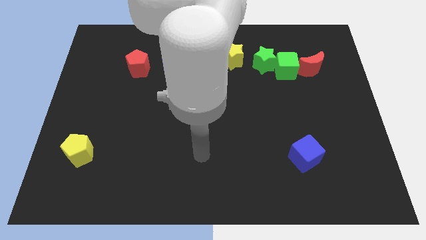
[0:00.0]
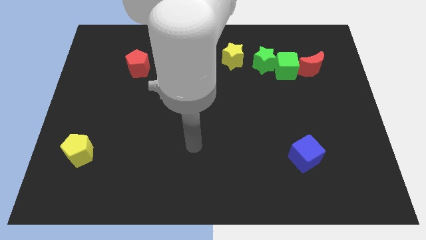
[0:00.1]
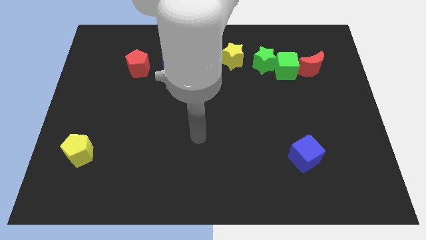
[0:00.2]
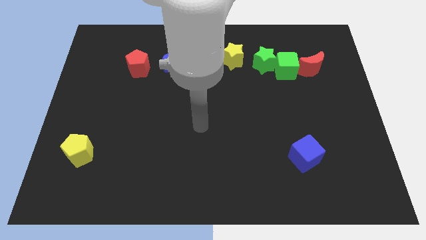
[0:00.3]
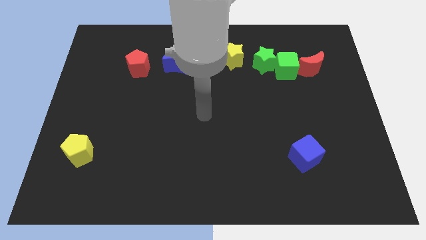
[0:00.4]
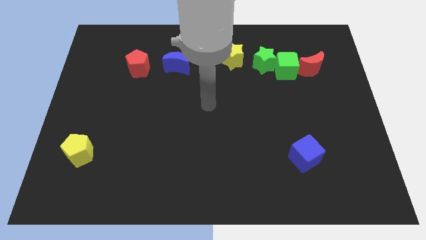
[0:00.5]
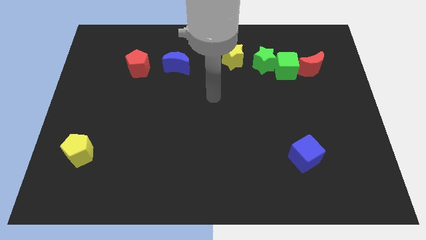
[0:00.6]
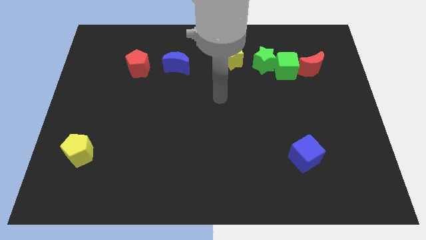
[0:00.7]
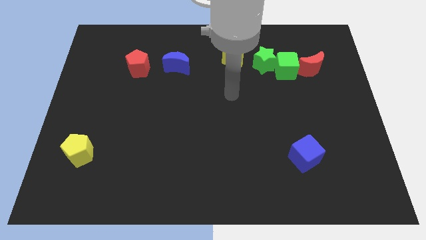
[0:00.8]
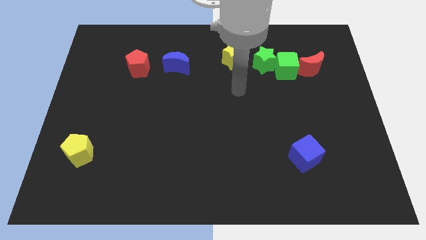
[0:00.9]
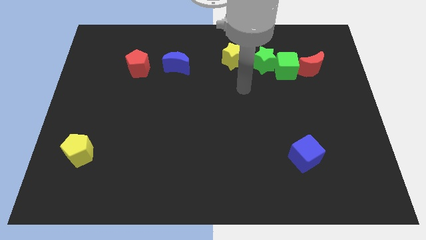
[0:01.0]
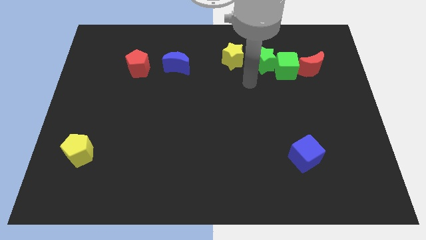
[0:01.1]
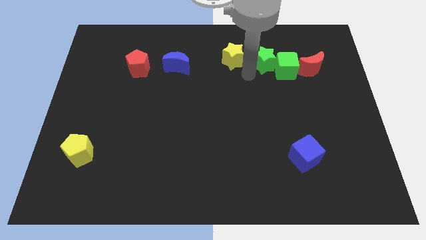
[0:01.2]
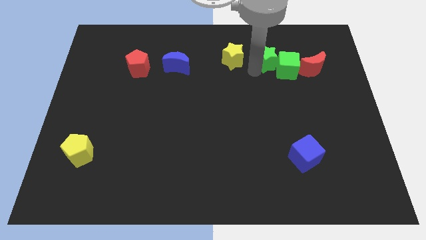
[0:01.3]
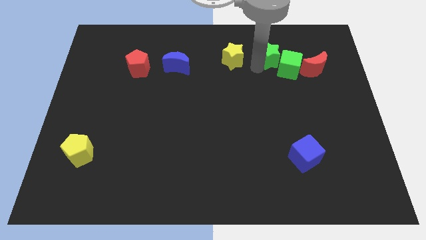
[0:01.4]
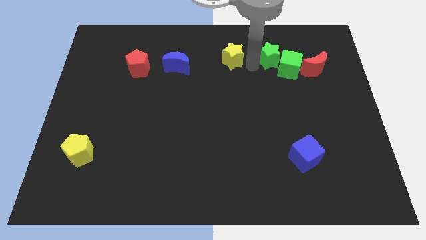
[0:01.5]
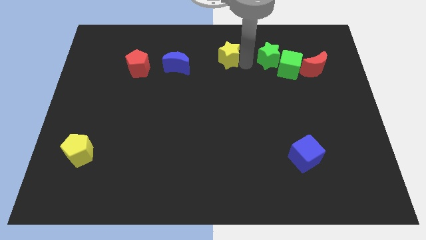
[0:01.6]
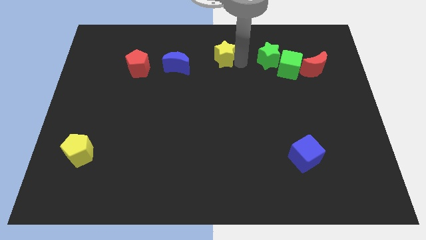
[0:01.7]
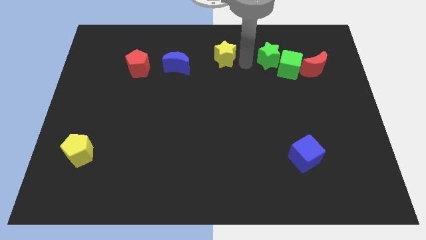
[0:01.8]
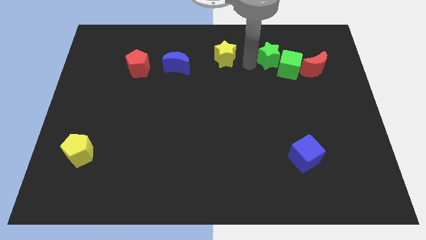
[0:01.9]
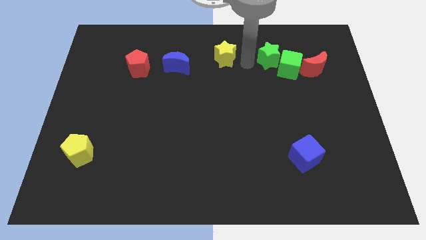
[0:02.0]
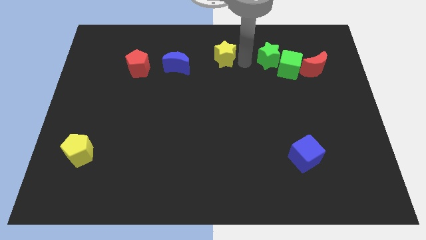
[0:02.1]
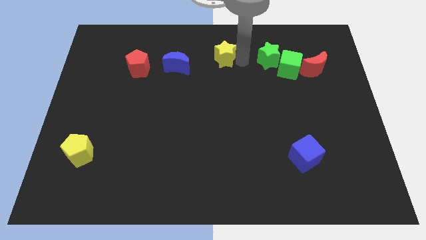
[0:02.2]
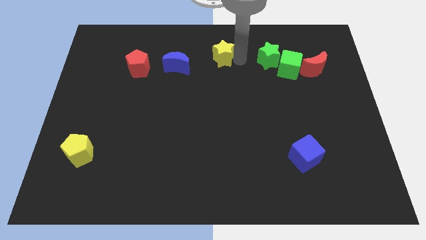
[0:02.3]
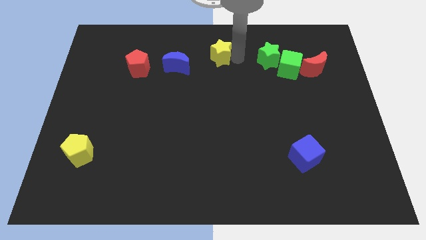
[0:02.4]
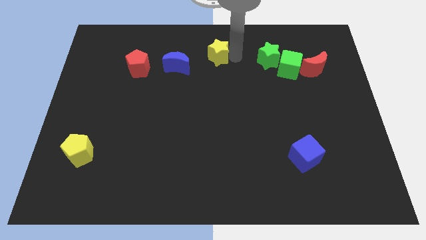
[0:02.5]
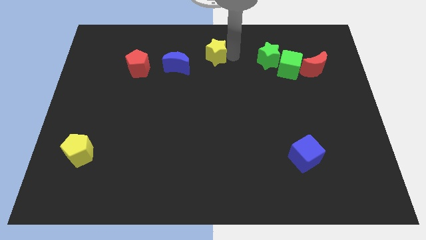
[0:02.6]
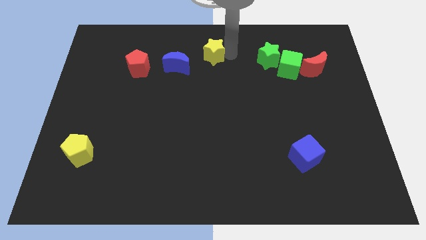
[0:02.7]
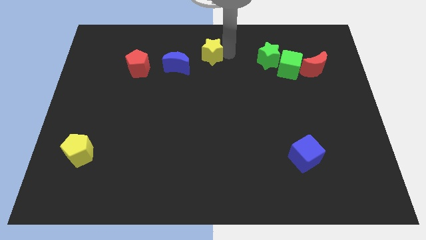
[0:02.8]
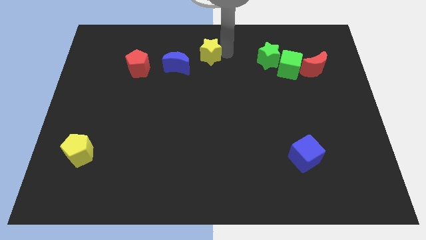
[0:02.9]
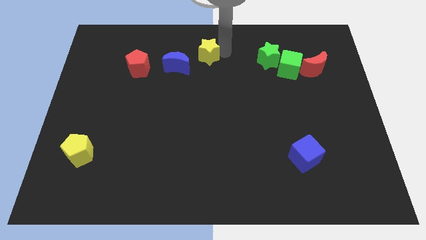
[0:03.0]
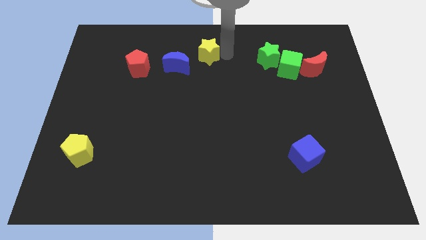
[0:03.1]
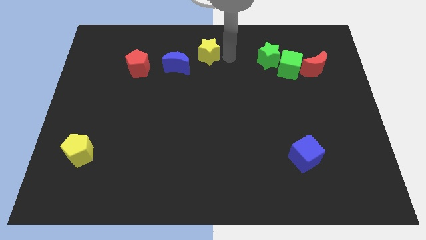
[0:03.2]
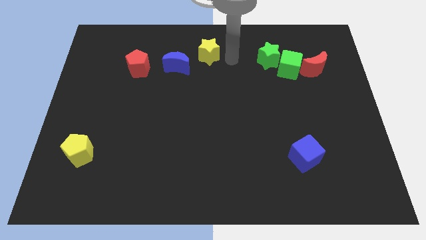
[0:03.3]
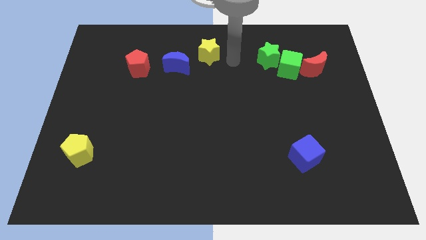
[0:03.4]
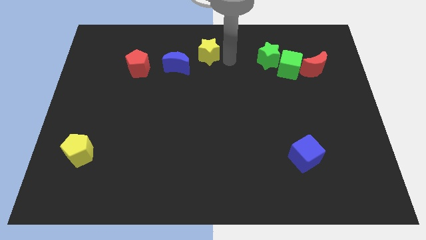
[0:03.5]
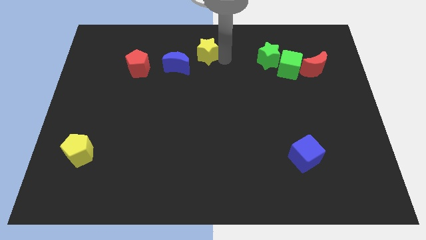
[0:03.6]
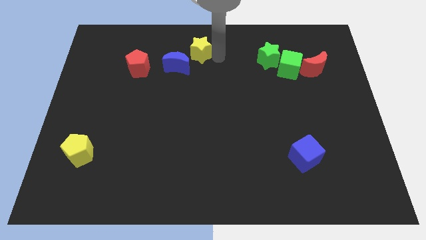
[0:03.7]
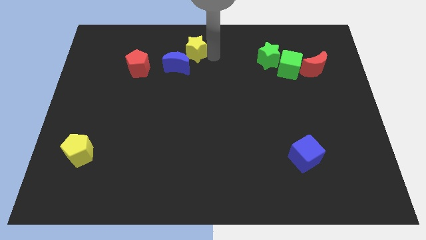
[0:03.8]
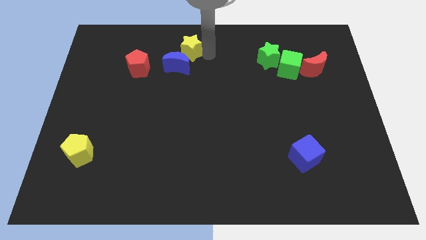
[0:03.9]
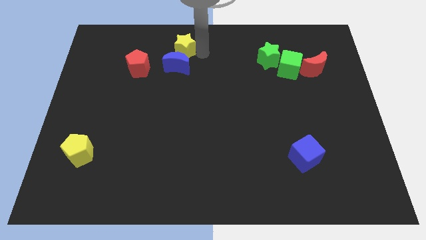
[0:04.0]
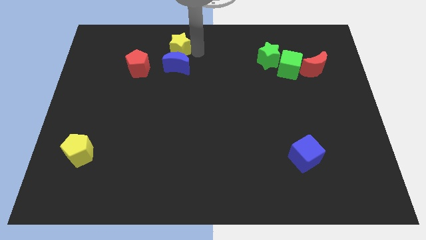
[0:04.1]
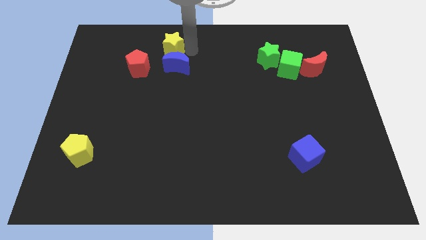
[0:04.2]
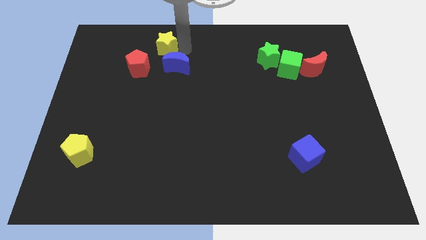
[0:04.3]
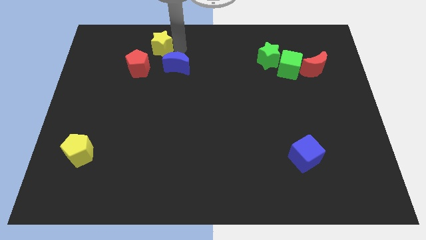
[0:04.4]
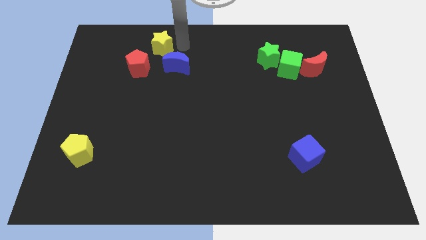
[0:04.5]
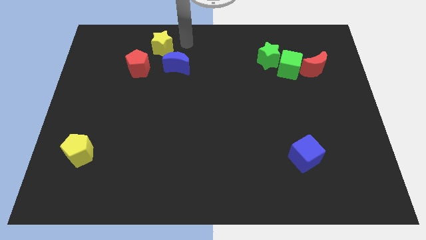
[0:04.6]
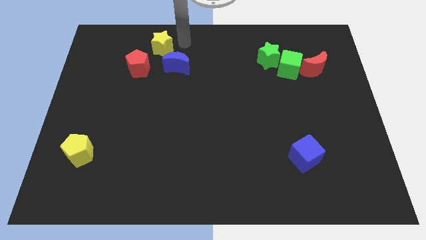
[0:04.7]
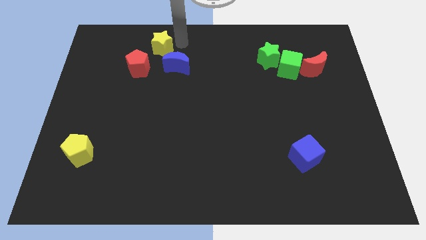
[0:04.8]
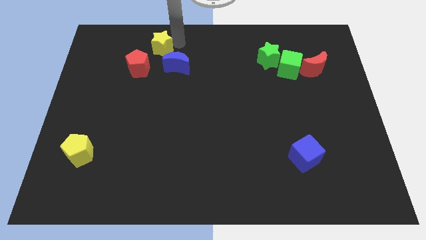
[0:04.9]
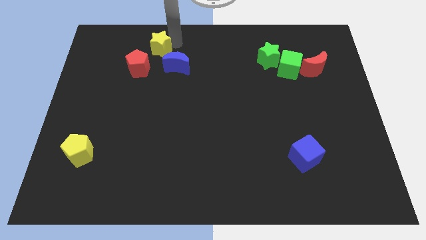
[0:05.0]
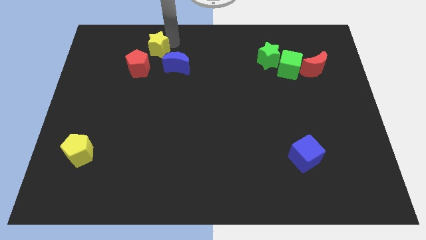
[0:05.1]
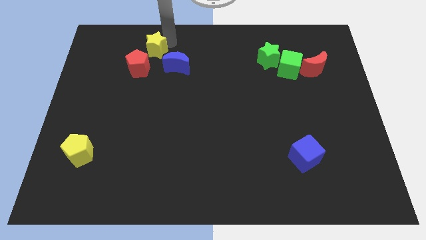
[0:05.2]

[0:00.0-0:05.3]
push the yellow star to the left

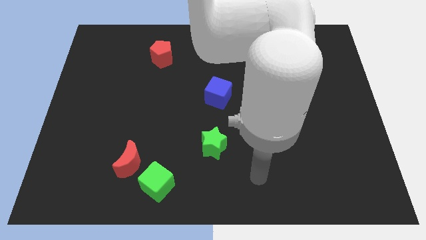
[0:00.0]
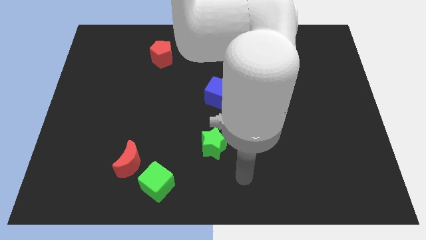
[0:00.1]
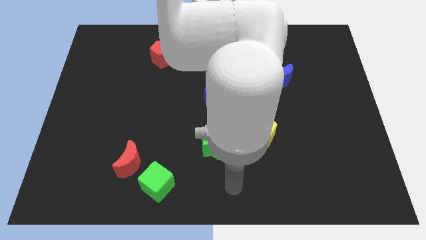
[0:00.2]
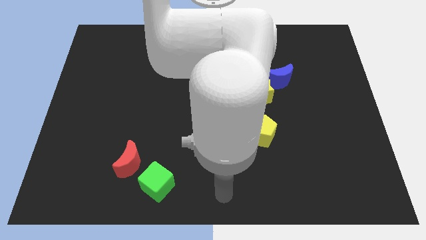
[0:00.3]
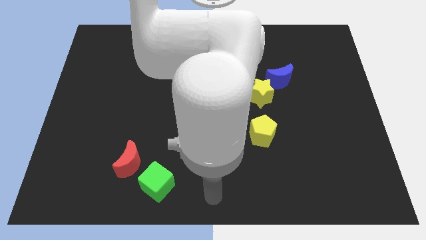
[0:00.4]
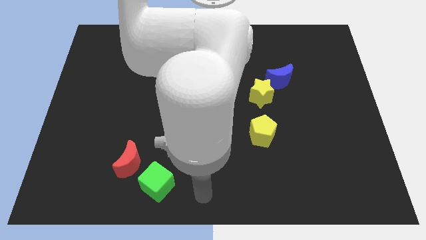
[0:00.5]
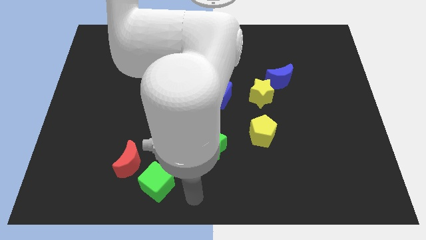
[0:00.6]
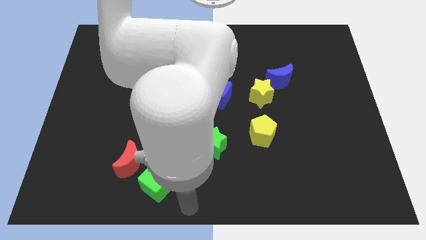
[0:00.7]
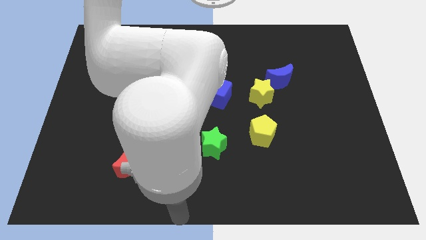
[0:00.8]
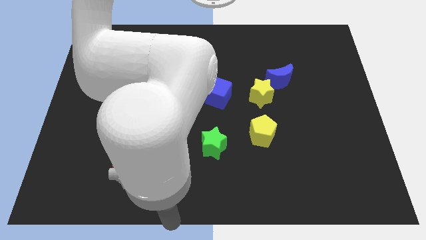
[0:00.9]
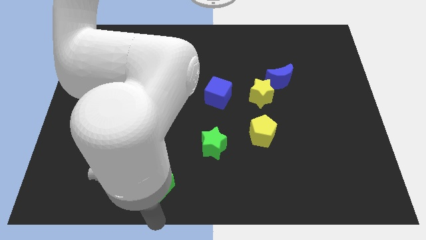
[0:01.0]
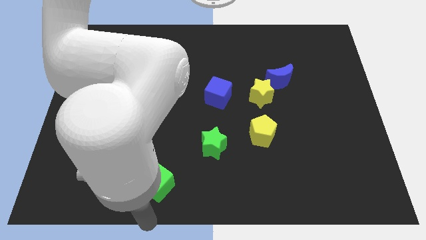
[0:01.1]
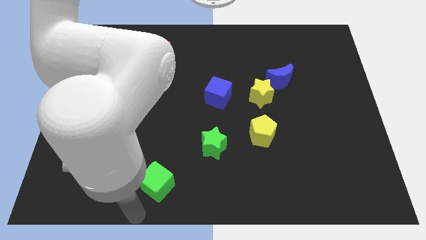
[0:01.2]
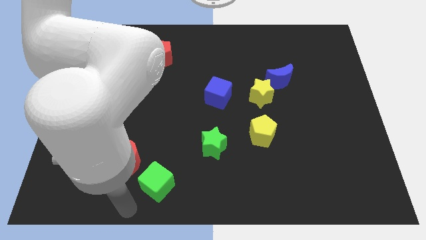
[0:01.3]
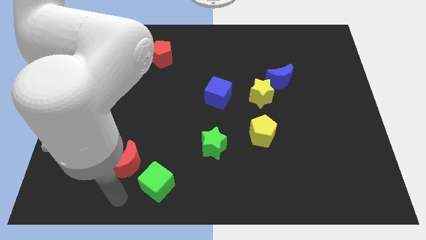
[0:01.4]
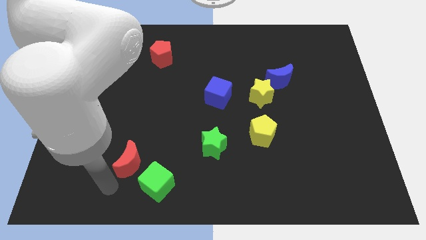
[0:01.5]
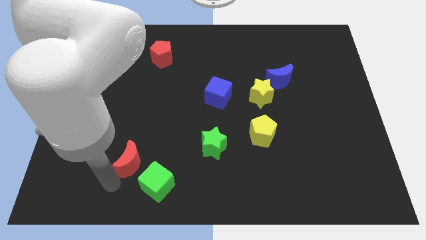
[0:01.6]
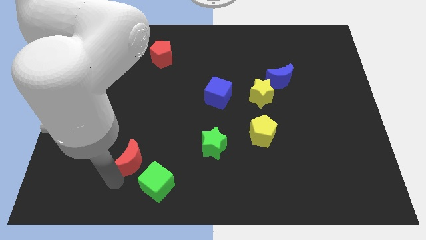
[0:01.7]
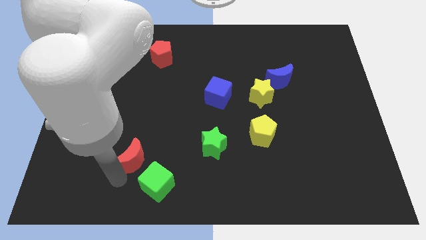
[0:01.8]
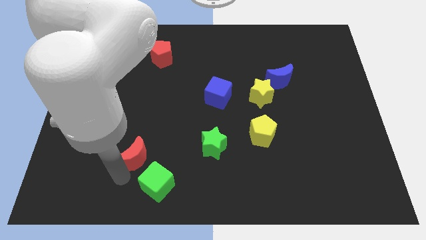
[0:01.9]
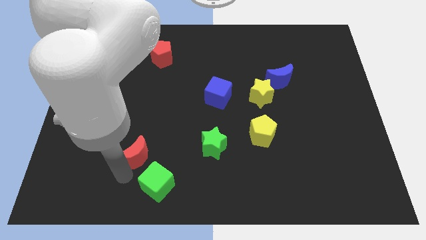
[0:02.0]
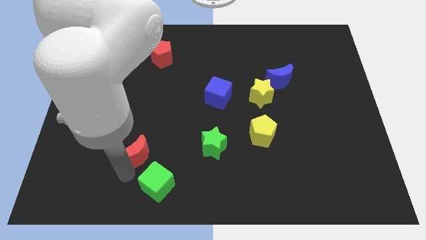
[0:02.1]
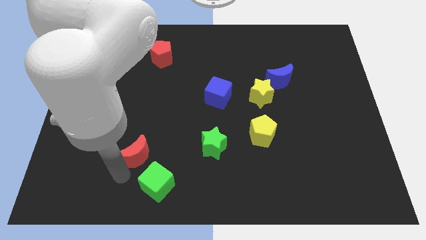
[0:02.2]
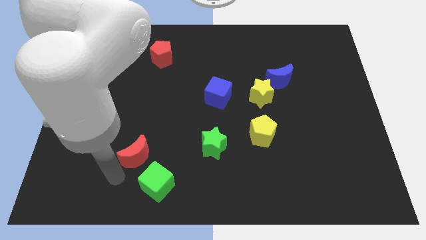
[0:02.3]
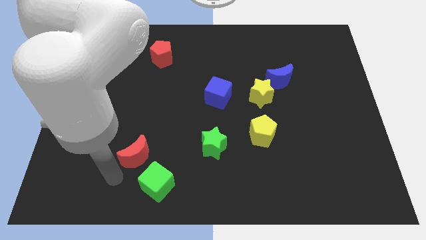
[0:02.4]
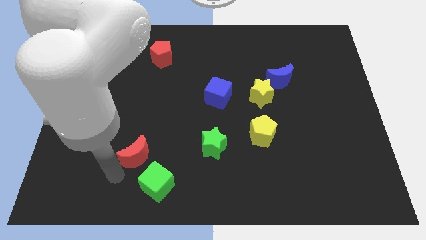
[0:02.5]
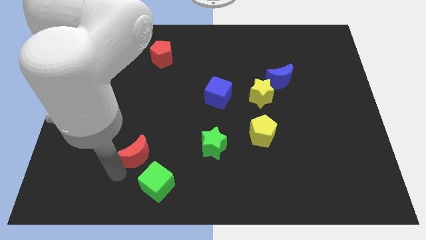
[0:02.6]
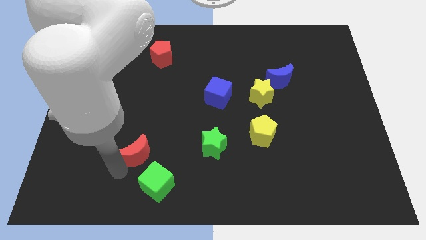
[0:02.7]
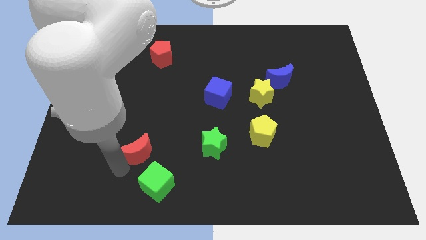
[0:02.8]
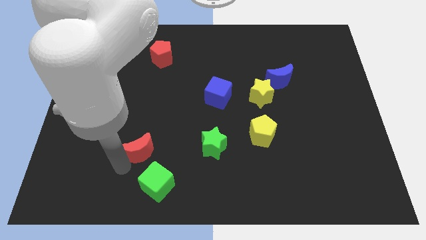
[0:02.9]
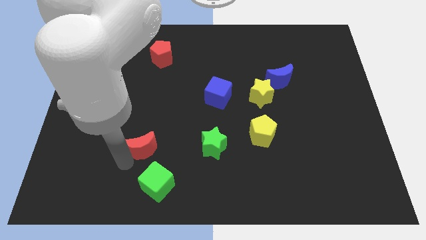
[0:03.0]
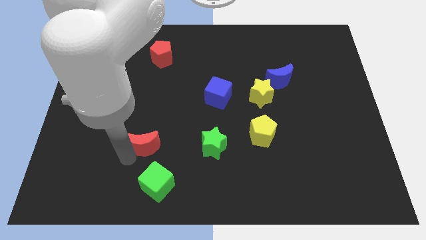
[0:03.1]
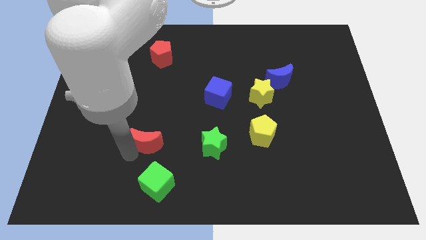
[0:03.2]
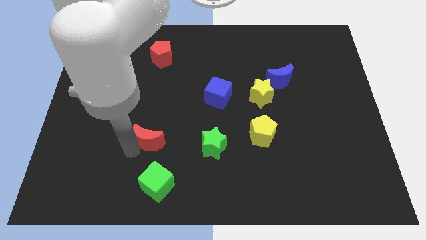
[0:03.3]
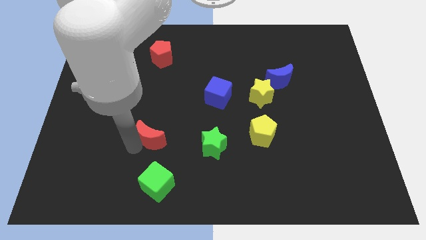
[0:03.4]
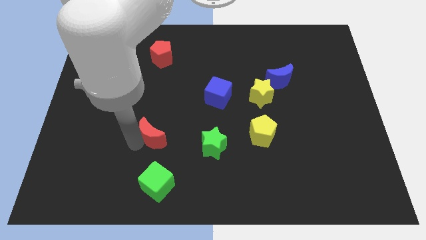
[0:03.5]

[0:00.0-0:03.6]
push the red moon slightly up and then right
